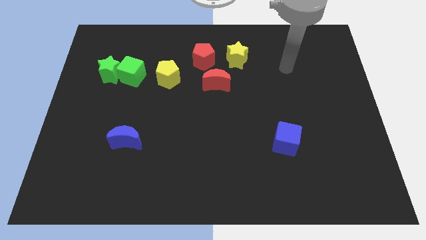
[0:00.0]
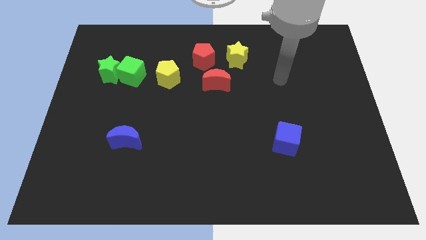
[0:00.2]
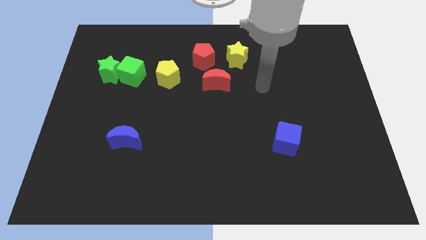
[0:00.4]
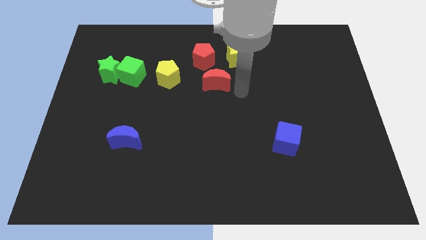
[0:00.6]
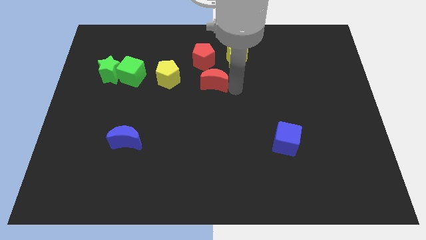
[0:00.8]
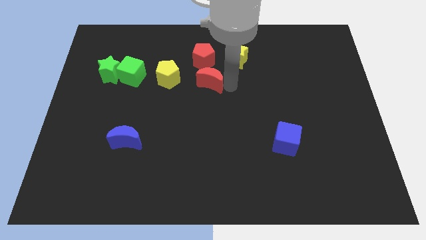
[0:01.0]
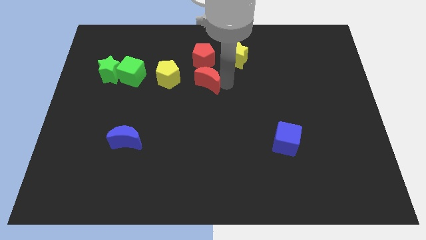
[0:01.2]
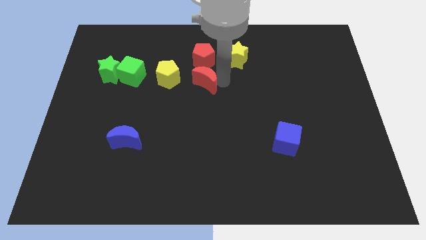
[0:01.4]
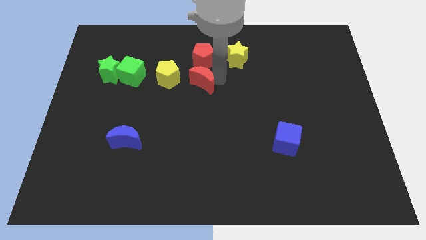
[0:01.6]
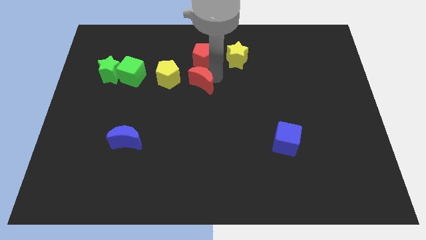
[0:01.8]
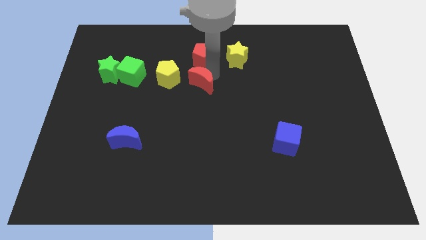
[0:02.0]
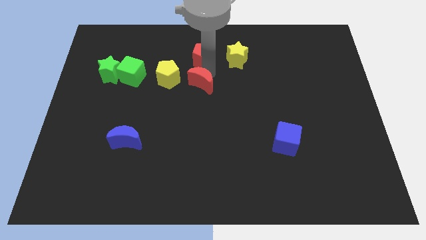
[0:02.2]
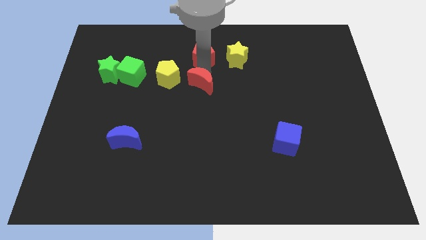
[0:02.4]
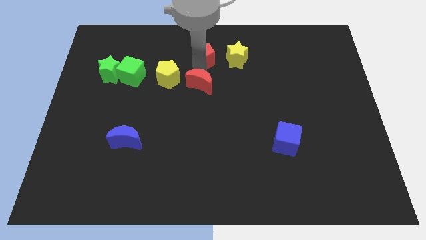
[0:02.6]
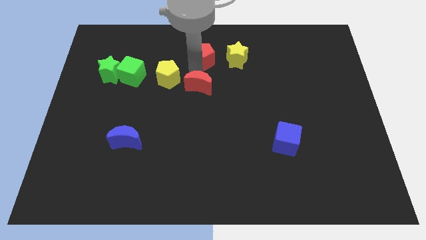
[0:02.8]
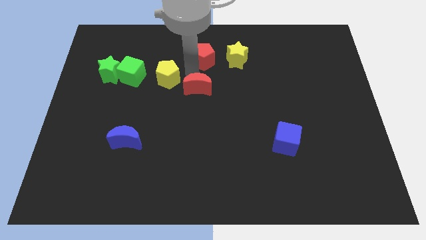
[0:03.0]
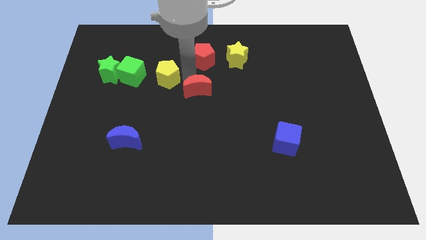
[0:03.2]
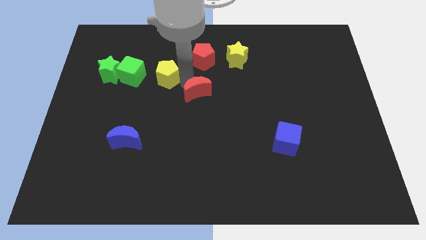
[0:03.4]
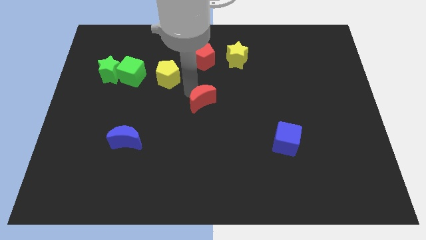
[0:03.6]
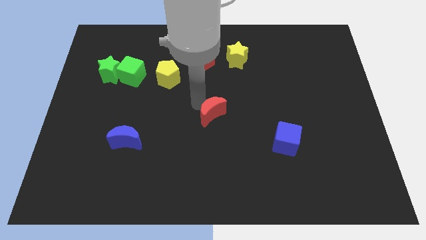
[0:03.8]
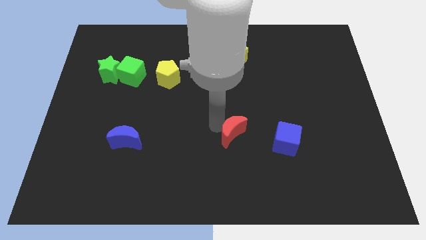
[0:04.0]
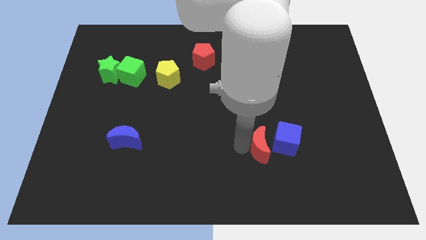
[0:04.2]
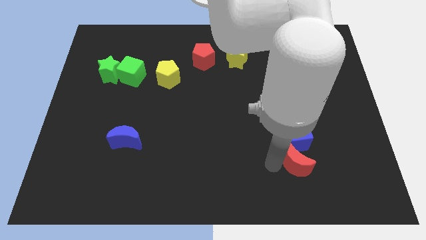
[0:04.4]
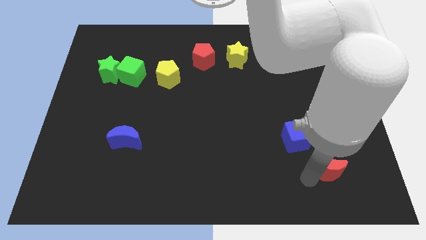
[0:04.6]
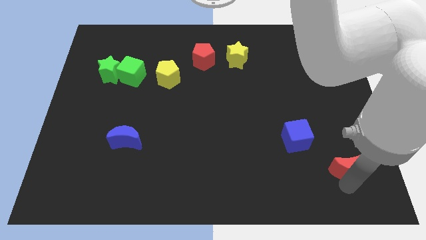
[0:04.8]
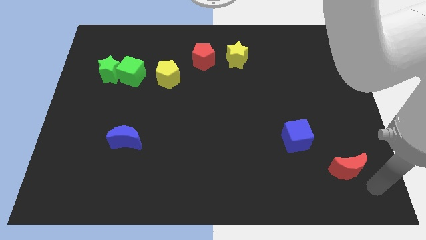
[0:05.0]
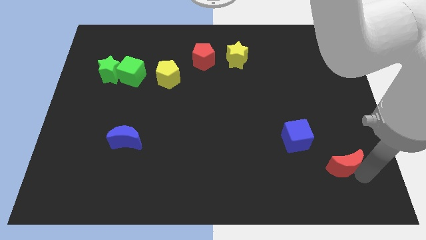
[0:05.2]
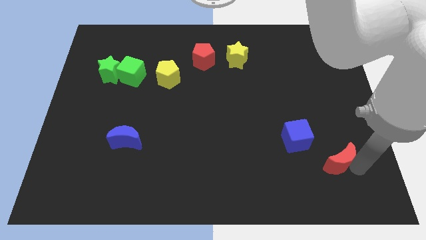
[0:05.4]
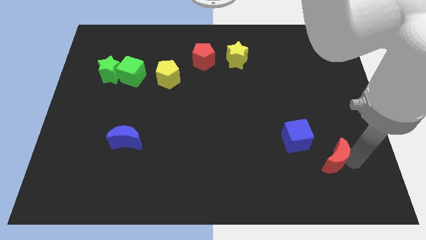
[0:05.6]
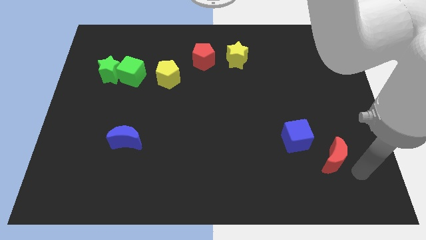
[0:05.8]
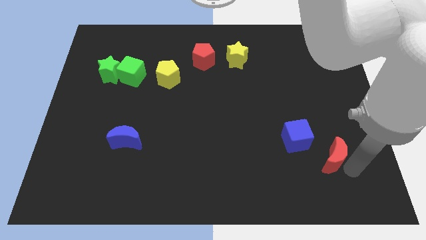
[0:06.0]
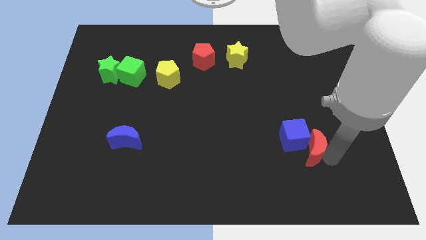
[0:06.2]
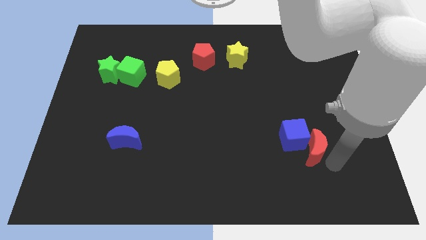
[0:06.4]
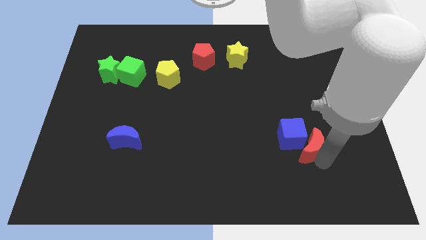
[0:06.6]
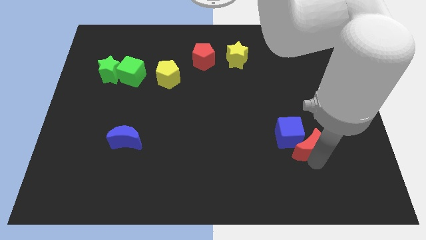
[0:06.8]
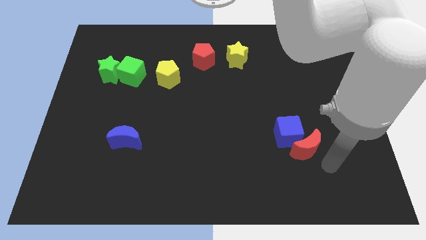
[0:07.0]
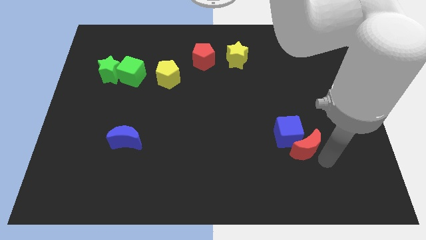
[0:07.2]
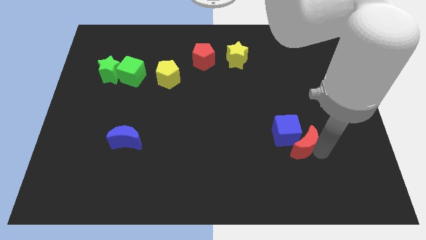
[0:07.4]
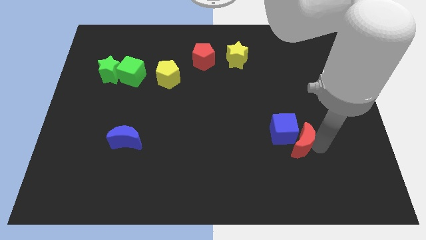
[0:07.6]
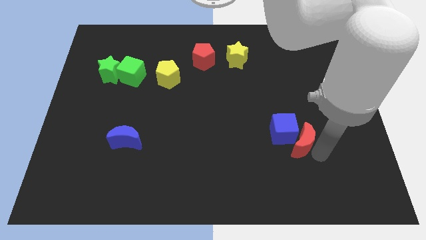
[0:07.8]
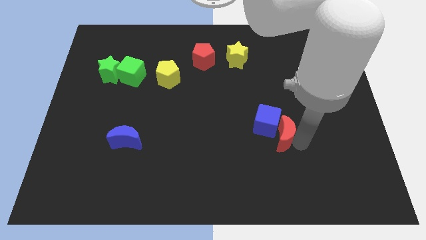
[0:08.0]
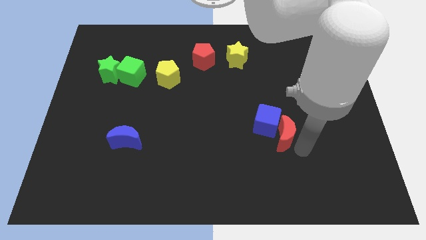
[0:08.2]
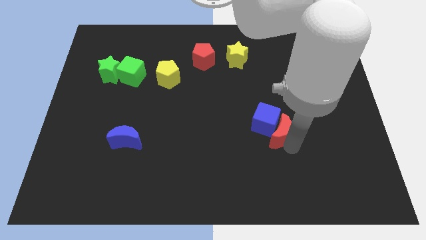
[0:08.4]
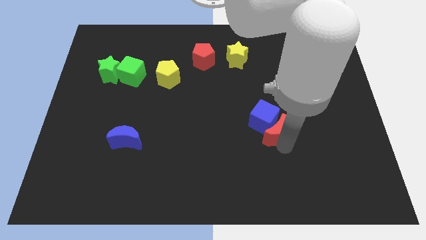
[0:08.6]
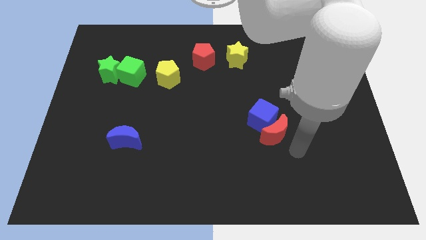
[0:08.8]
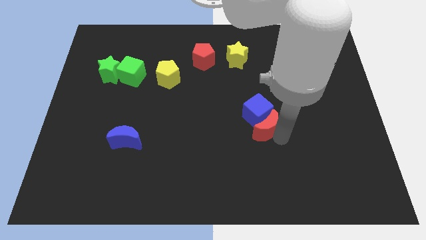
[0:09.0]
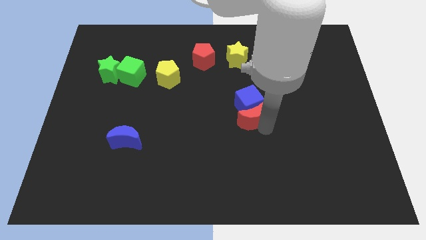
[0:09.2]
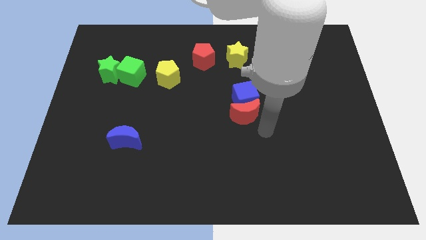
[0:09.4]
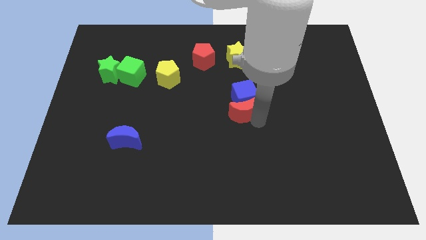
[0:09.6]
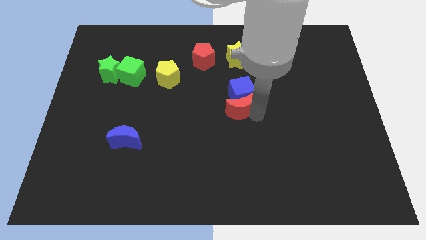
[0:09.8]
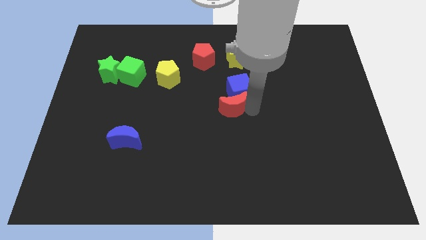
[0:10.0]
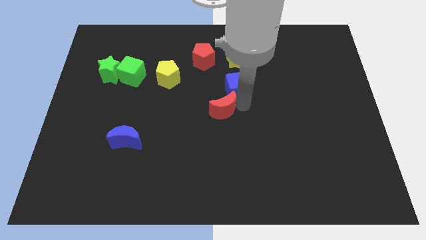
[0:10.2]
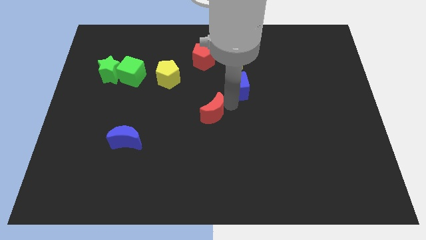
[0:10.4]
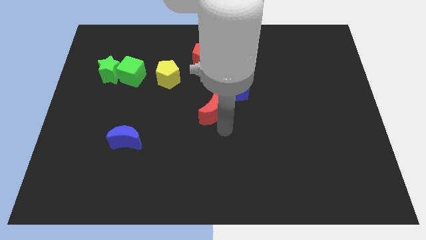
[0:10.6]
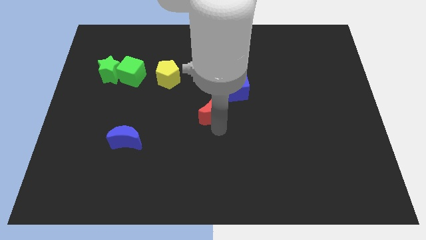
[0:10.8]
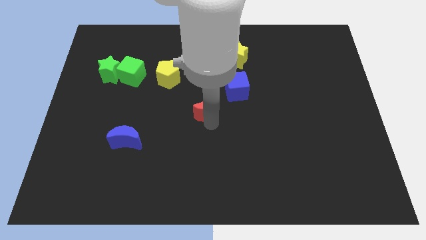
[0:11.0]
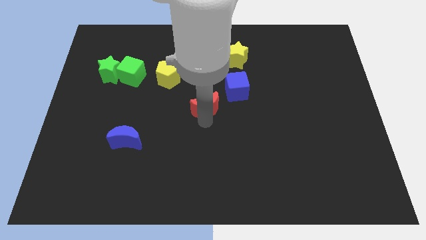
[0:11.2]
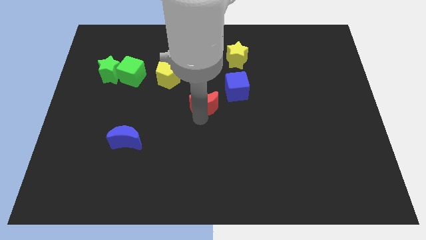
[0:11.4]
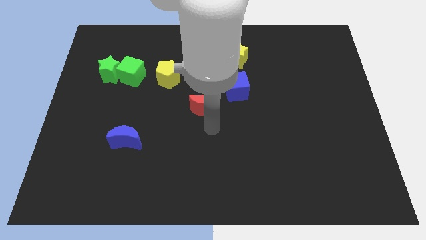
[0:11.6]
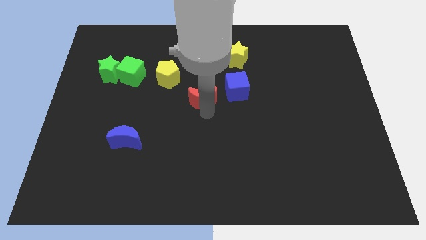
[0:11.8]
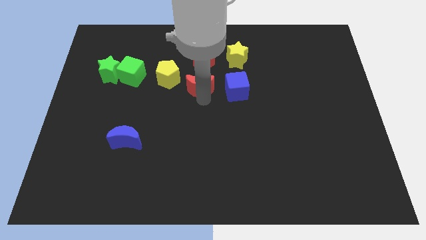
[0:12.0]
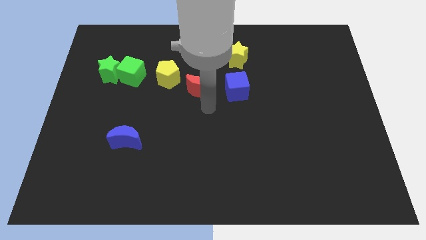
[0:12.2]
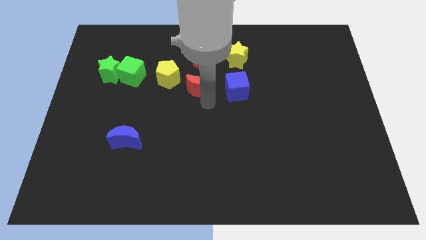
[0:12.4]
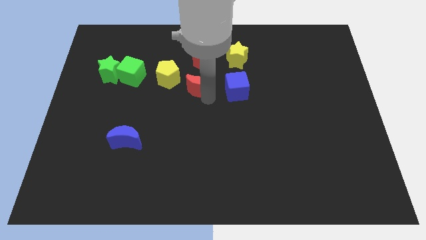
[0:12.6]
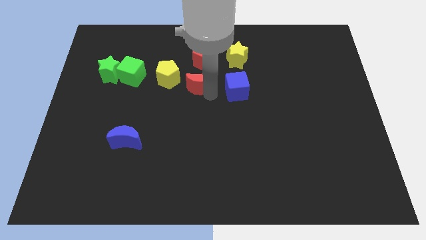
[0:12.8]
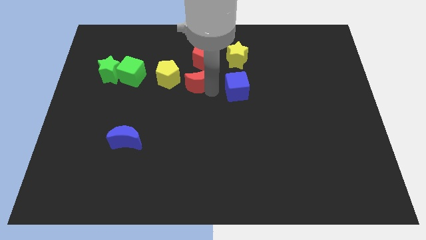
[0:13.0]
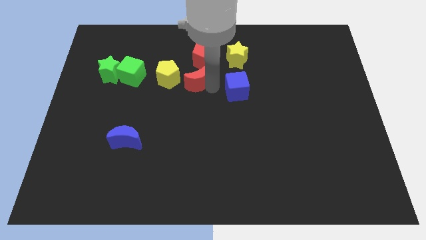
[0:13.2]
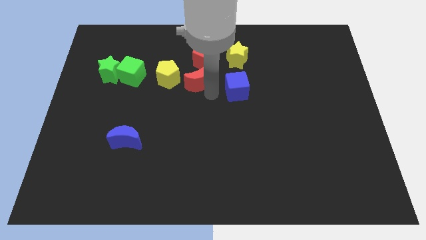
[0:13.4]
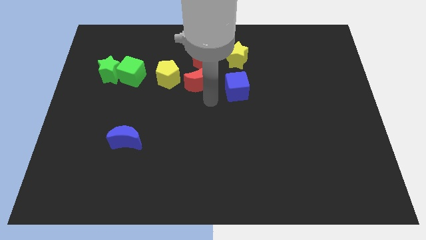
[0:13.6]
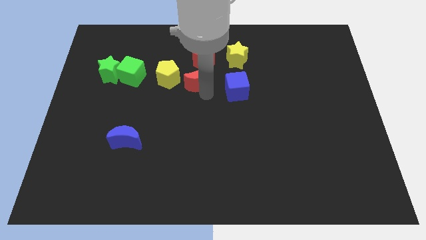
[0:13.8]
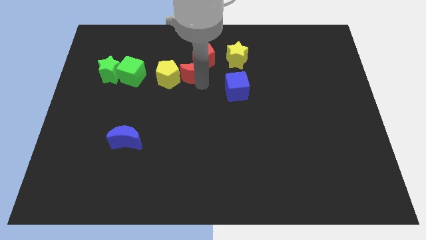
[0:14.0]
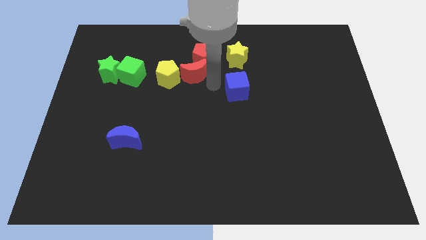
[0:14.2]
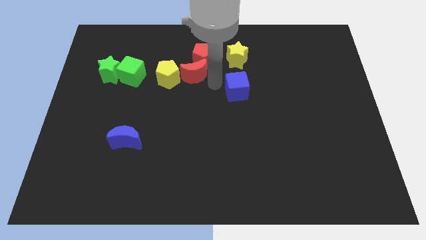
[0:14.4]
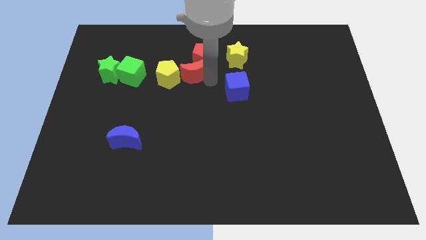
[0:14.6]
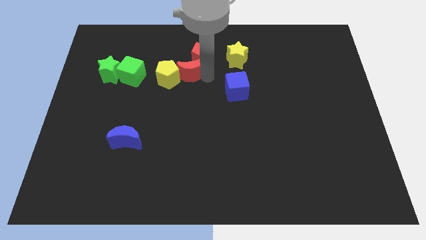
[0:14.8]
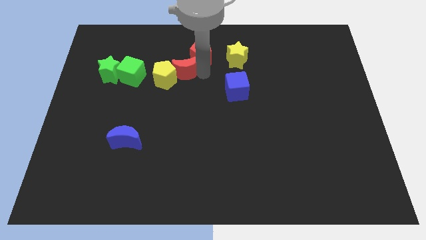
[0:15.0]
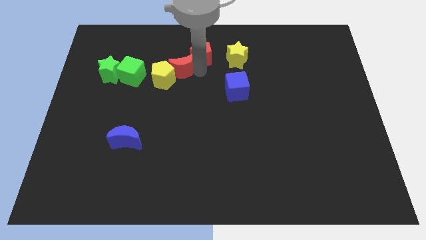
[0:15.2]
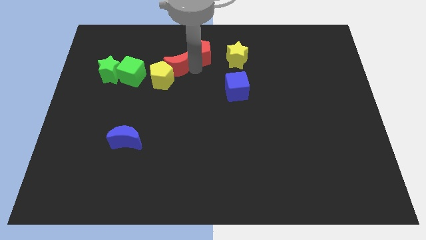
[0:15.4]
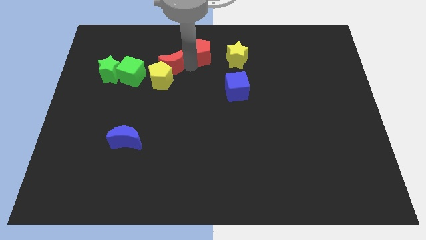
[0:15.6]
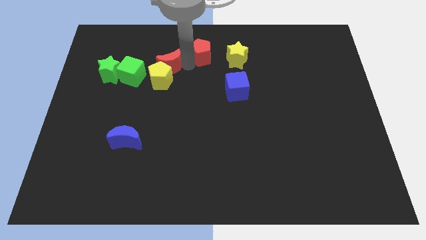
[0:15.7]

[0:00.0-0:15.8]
move the red moon to the top right side of the green cube
